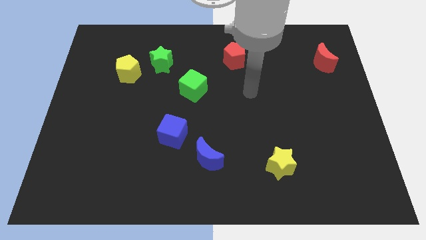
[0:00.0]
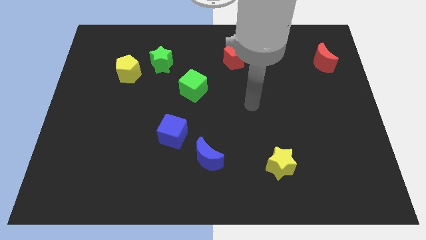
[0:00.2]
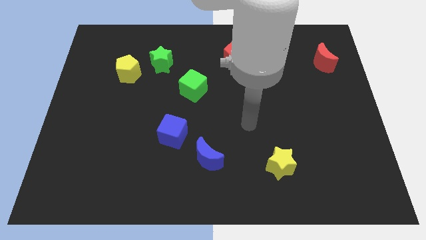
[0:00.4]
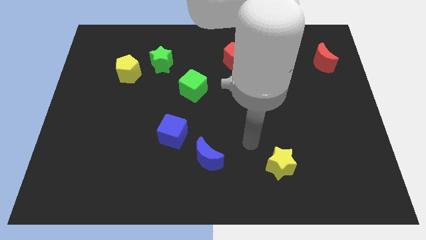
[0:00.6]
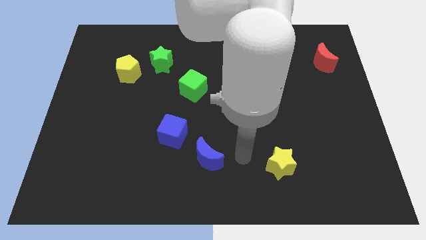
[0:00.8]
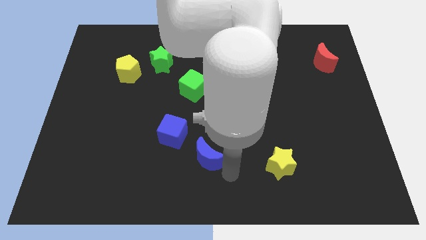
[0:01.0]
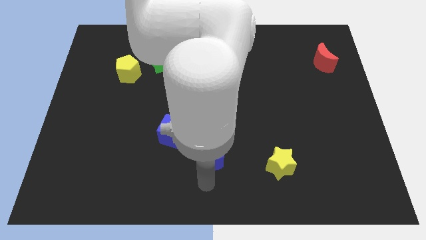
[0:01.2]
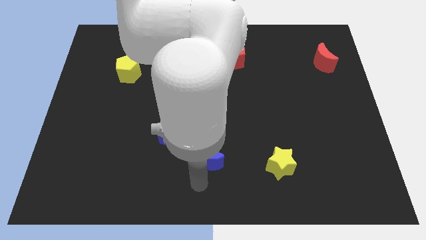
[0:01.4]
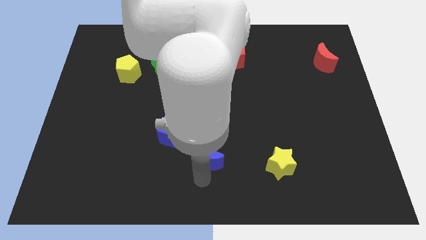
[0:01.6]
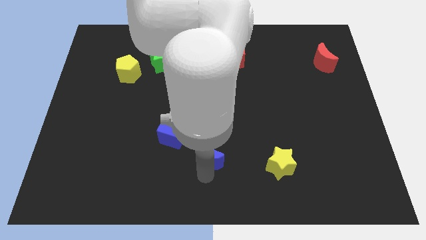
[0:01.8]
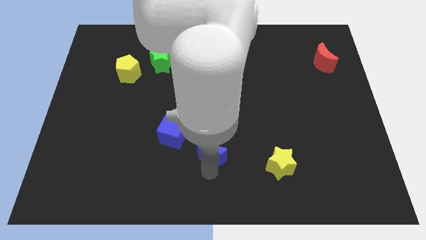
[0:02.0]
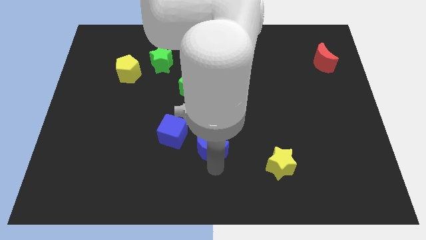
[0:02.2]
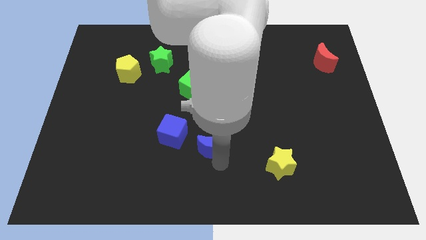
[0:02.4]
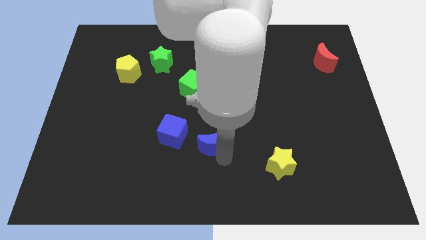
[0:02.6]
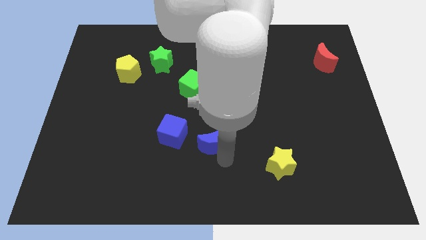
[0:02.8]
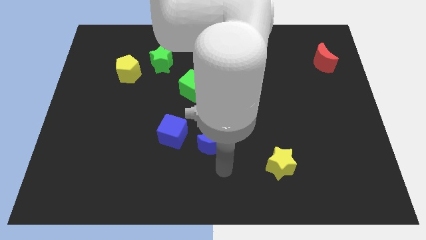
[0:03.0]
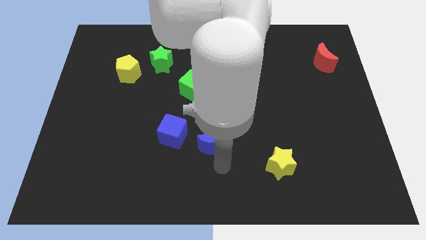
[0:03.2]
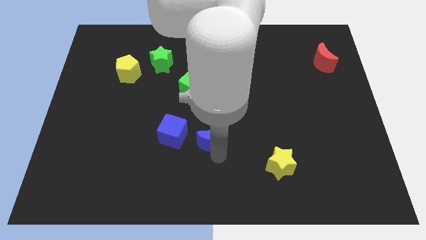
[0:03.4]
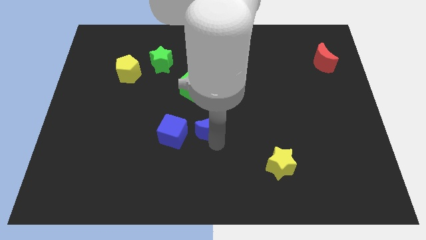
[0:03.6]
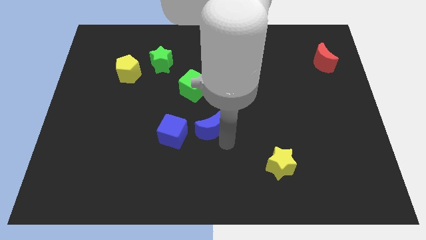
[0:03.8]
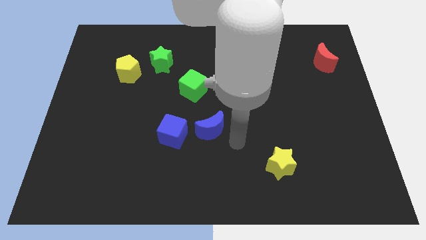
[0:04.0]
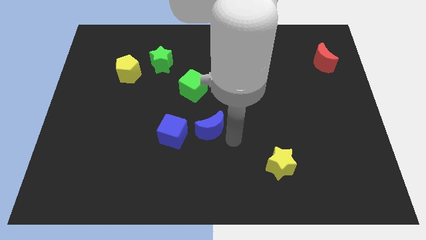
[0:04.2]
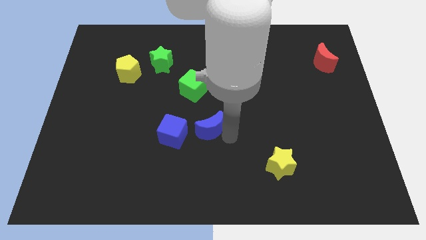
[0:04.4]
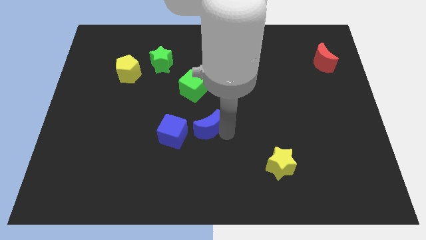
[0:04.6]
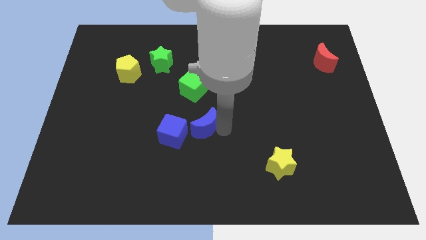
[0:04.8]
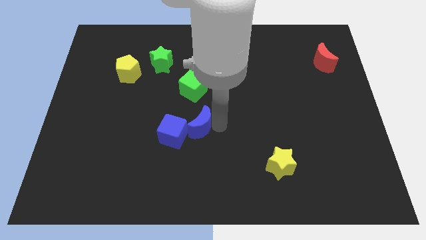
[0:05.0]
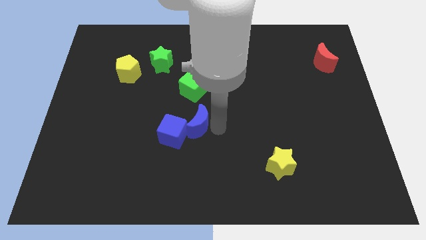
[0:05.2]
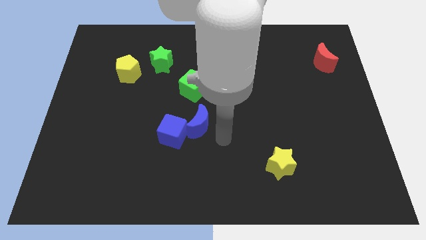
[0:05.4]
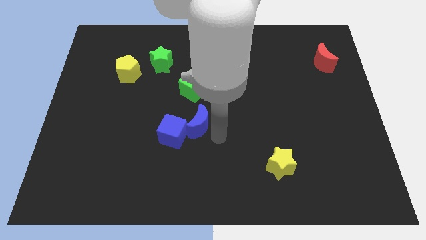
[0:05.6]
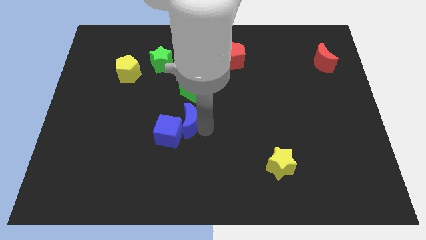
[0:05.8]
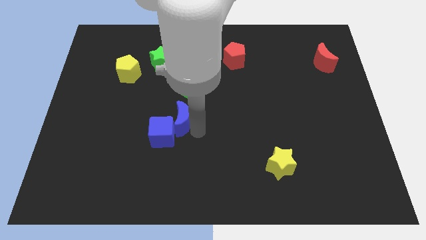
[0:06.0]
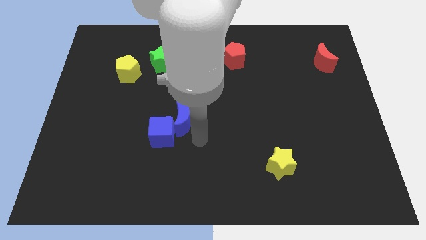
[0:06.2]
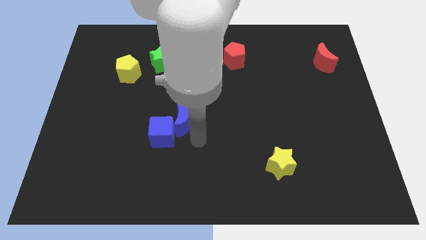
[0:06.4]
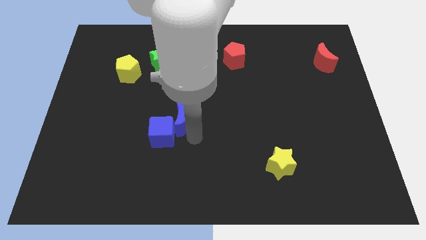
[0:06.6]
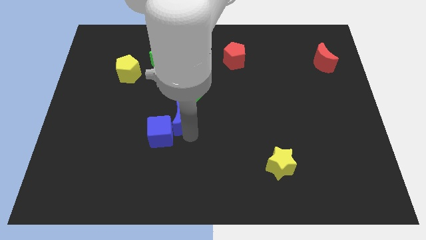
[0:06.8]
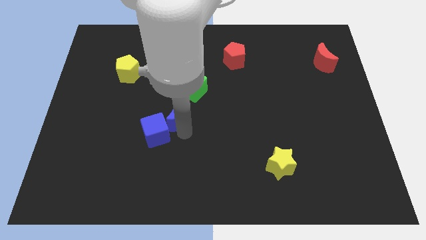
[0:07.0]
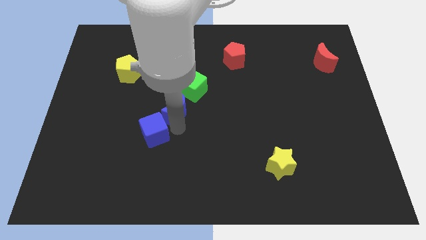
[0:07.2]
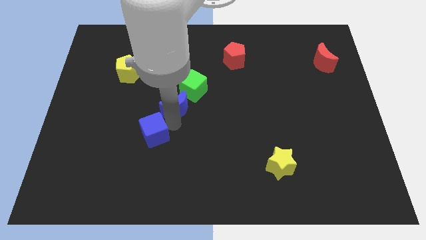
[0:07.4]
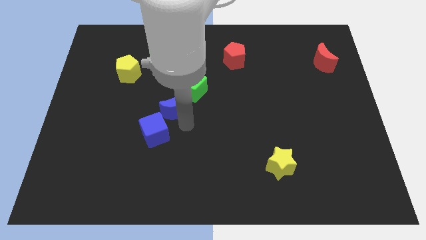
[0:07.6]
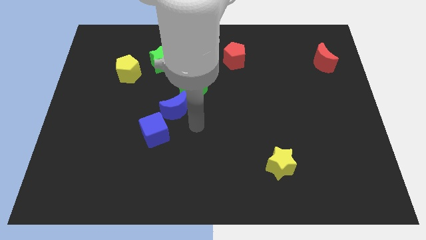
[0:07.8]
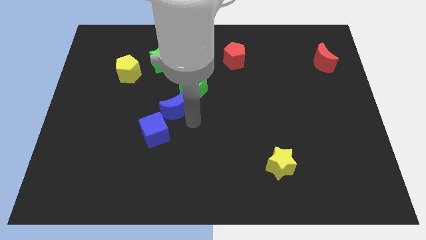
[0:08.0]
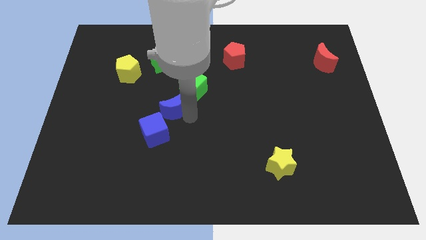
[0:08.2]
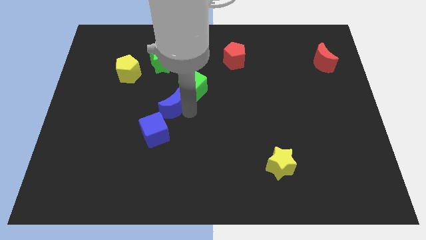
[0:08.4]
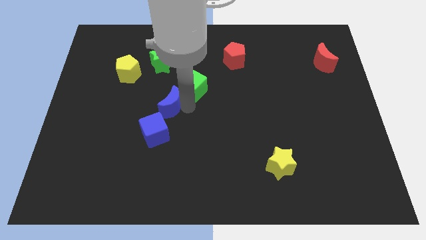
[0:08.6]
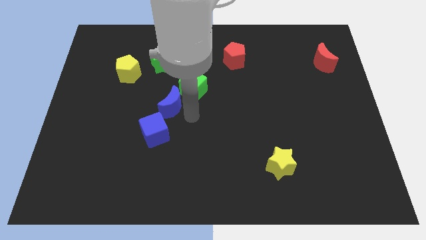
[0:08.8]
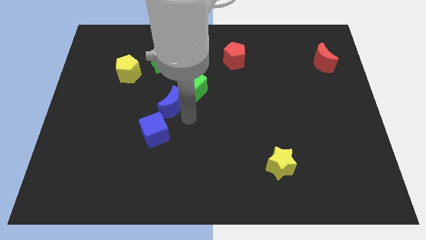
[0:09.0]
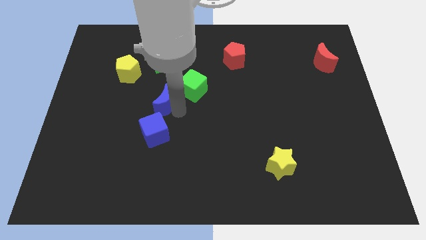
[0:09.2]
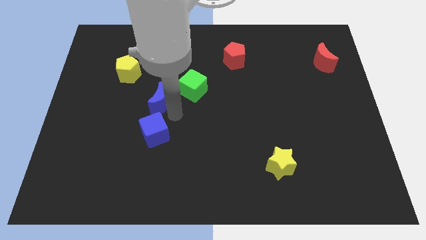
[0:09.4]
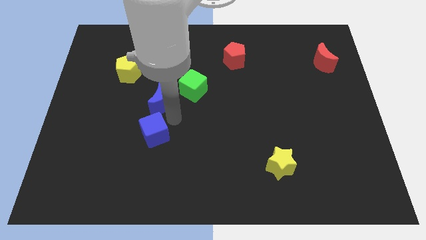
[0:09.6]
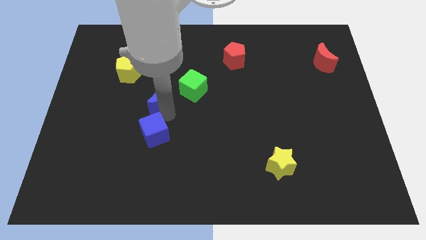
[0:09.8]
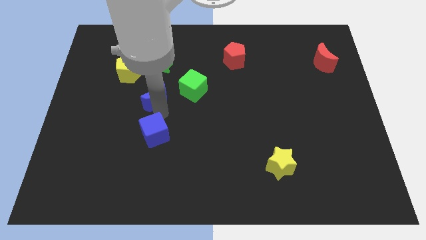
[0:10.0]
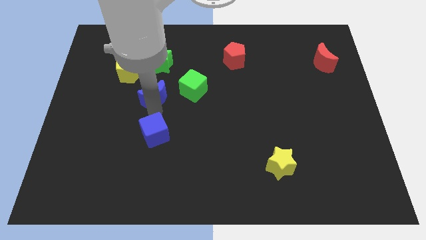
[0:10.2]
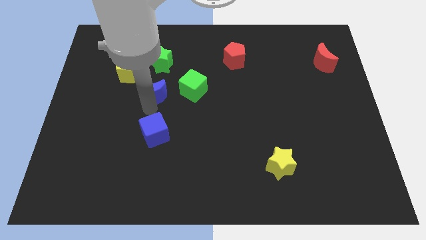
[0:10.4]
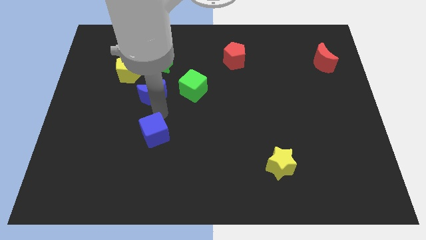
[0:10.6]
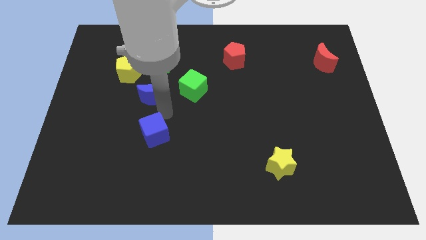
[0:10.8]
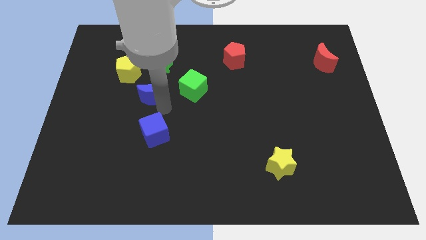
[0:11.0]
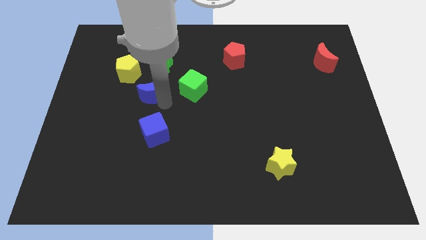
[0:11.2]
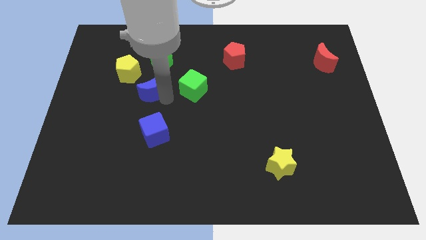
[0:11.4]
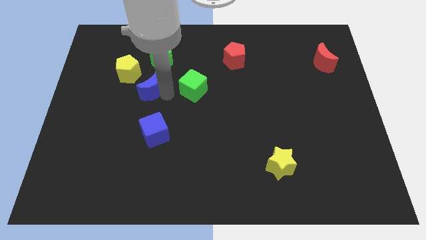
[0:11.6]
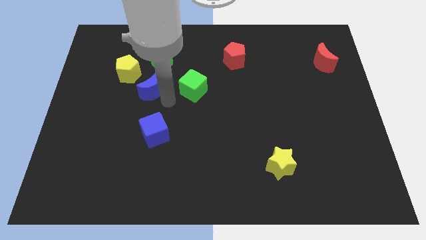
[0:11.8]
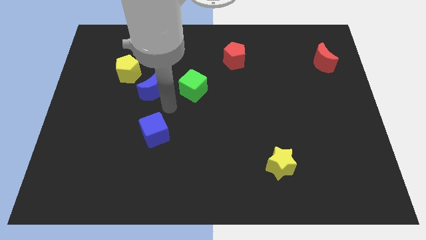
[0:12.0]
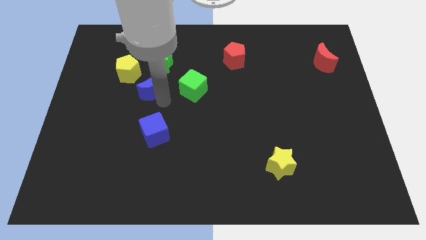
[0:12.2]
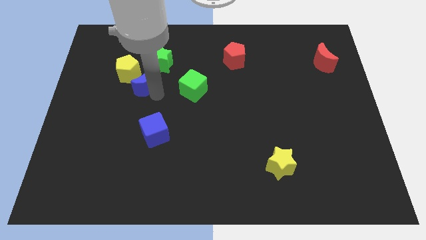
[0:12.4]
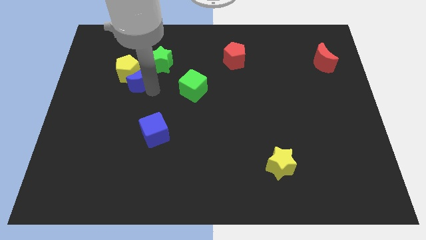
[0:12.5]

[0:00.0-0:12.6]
slide the blue moon next to the yellow pentagon

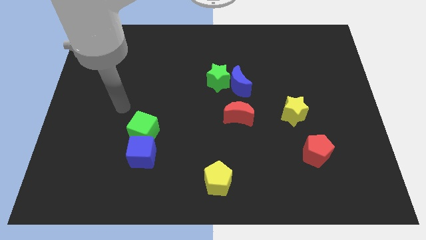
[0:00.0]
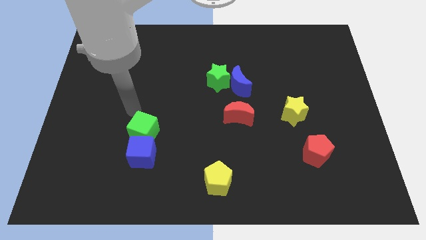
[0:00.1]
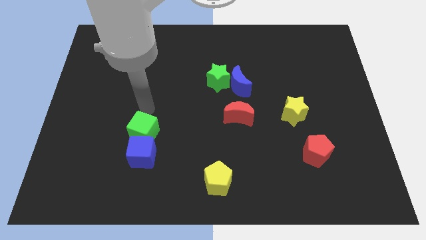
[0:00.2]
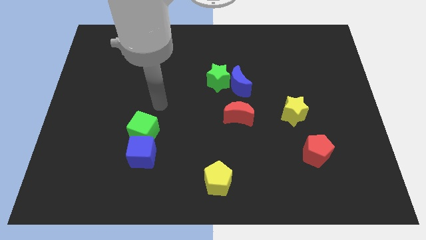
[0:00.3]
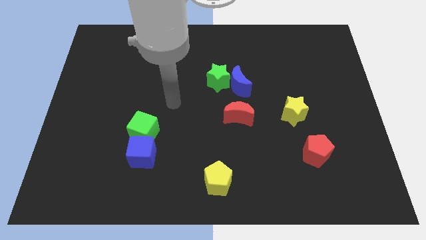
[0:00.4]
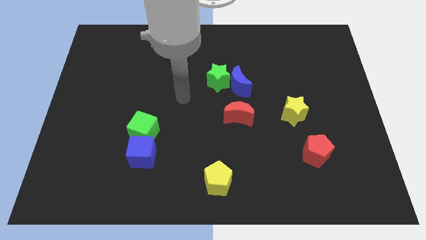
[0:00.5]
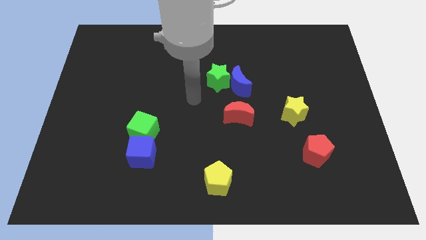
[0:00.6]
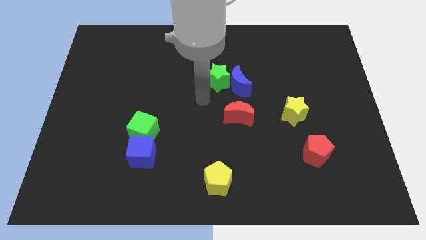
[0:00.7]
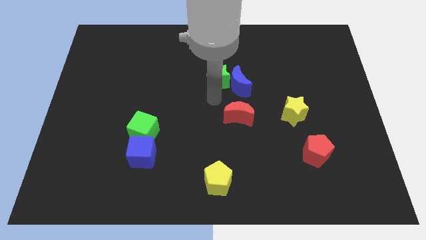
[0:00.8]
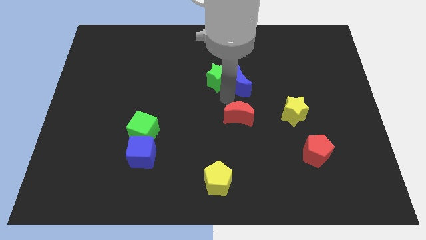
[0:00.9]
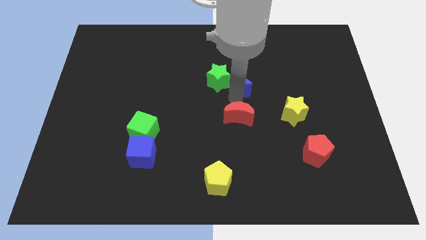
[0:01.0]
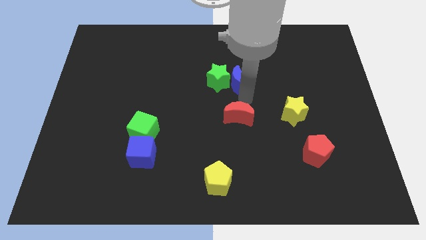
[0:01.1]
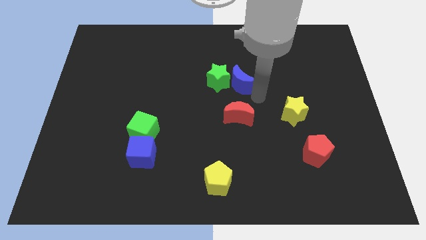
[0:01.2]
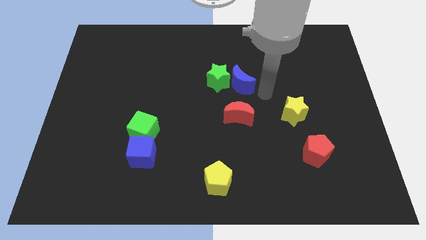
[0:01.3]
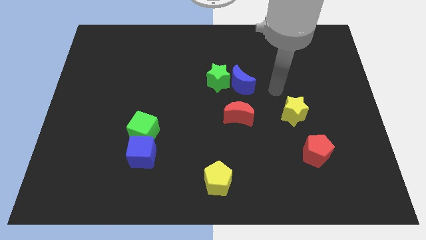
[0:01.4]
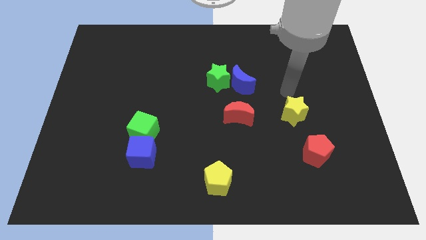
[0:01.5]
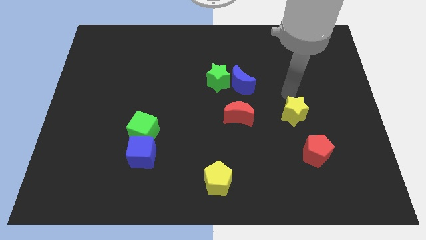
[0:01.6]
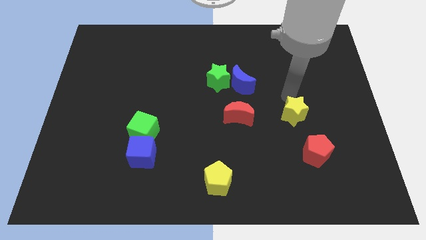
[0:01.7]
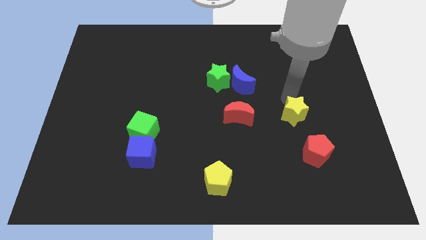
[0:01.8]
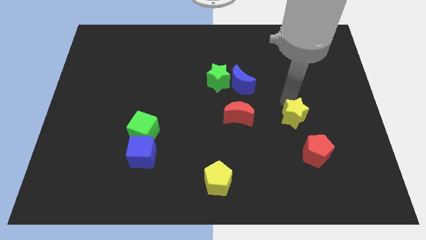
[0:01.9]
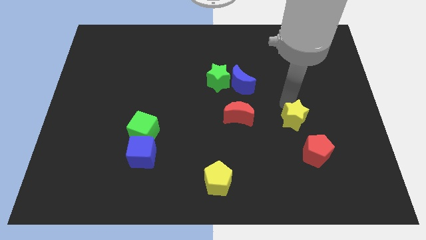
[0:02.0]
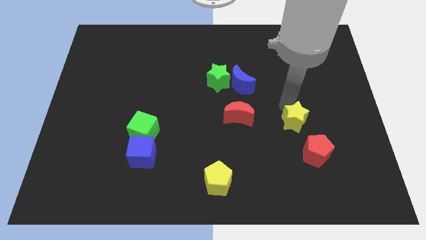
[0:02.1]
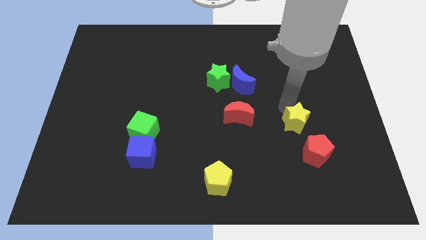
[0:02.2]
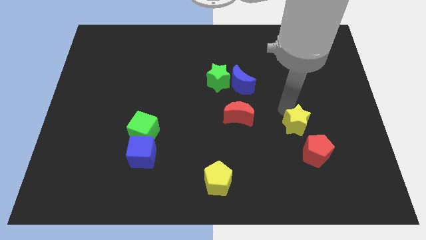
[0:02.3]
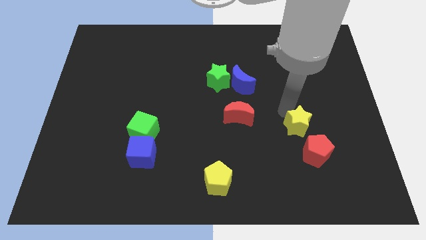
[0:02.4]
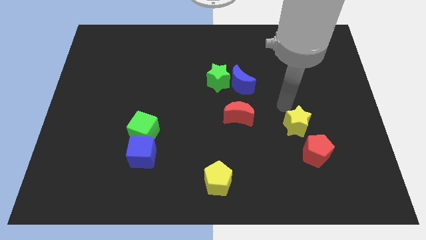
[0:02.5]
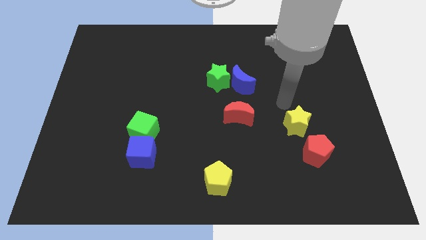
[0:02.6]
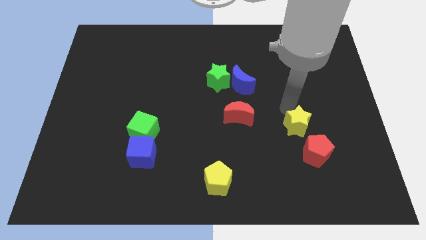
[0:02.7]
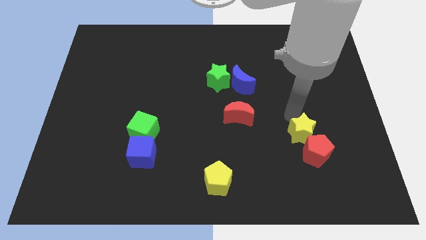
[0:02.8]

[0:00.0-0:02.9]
put the yellow star next to the red pentagon
